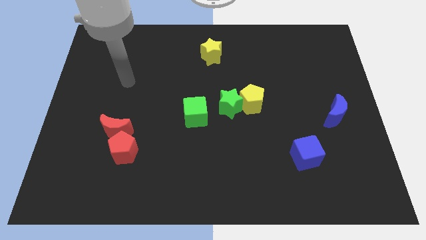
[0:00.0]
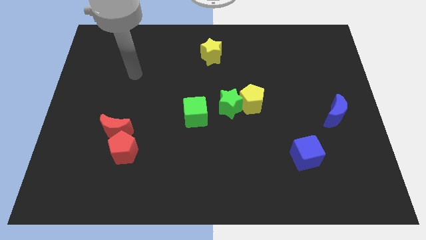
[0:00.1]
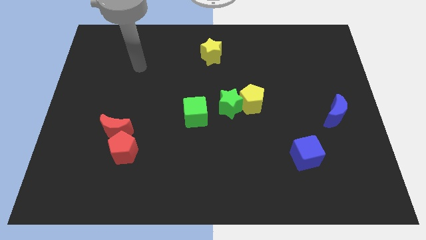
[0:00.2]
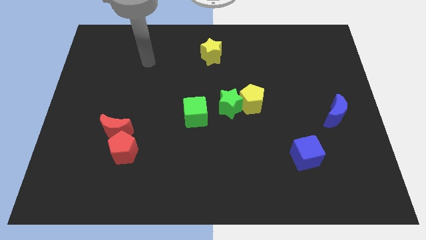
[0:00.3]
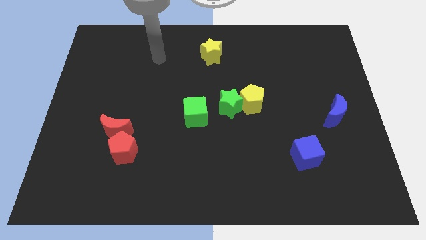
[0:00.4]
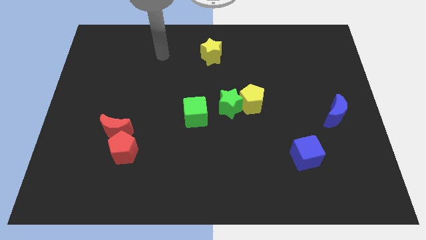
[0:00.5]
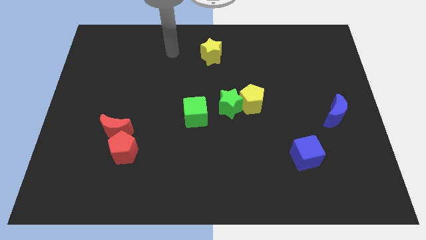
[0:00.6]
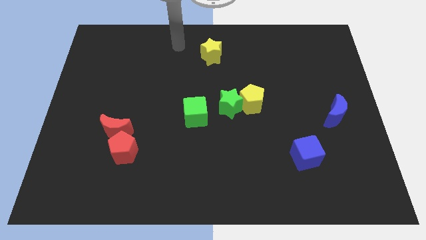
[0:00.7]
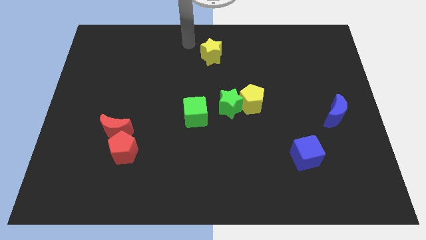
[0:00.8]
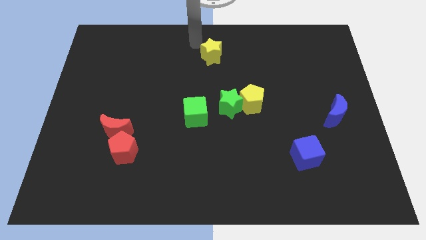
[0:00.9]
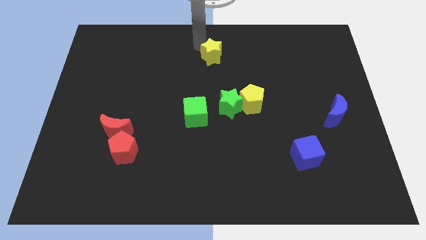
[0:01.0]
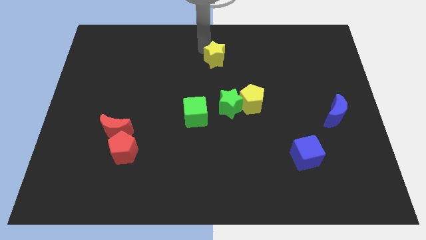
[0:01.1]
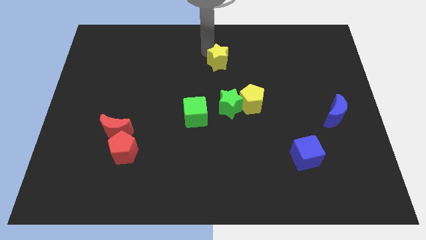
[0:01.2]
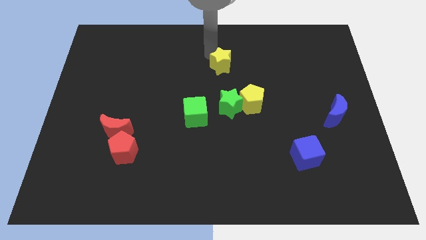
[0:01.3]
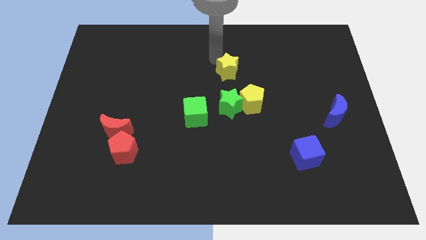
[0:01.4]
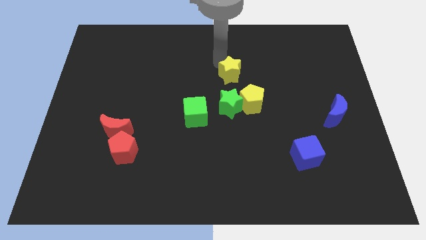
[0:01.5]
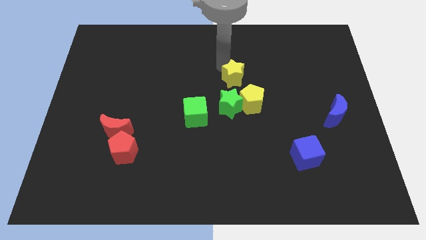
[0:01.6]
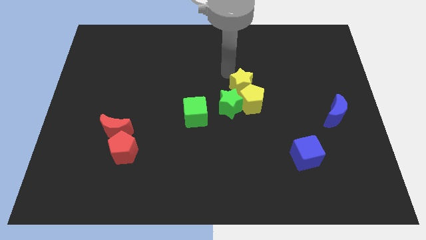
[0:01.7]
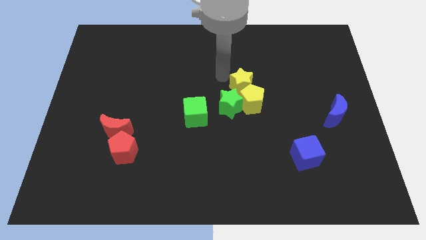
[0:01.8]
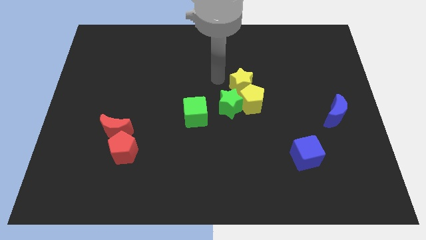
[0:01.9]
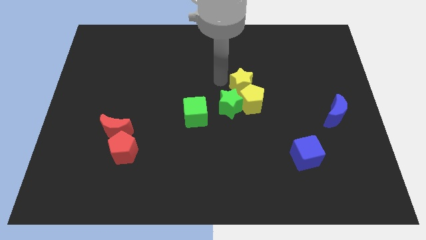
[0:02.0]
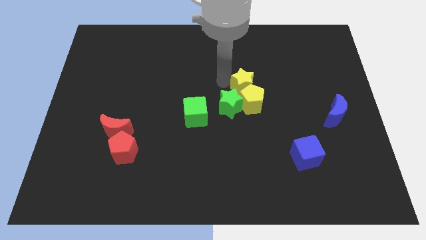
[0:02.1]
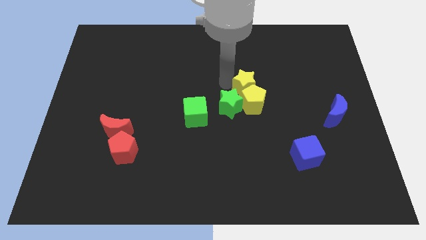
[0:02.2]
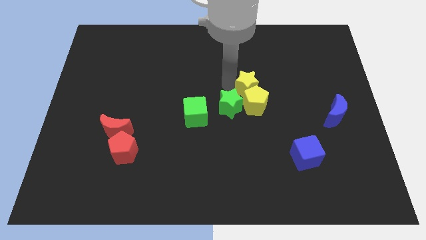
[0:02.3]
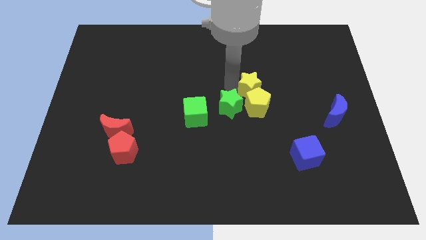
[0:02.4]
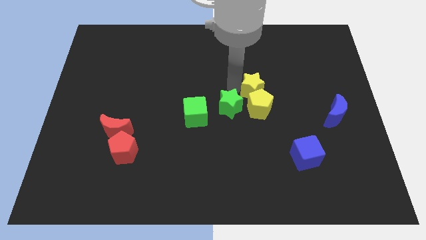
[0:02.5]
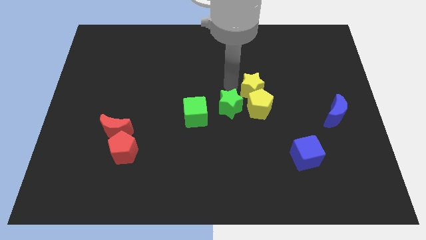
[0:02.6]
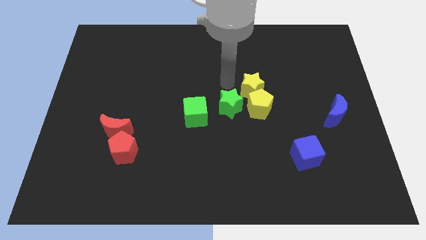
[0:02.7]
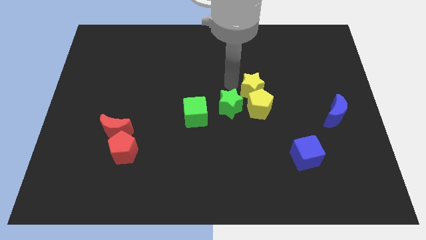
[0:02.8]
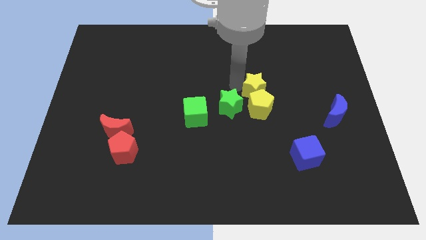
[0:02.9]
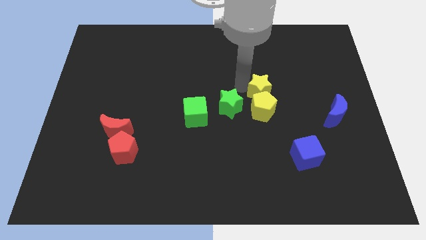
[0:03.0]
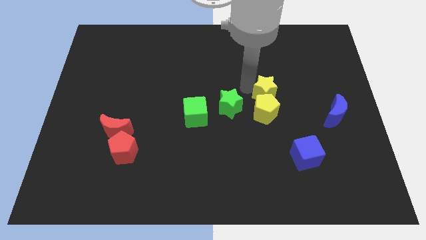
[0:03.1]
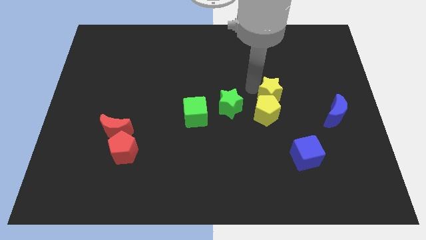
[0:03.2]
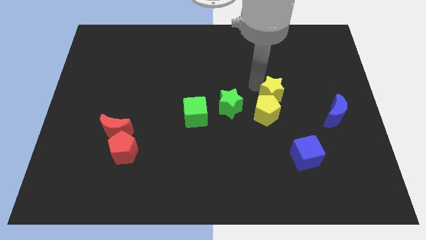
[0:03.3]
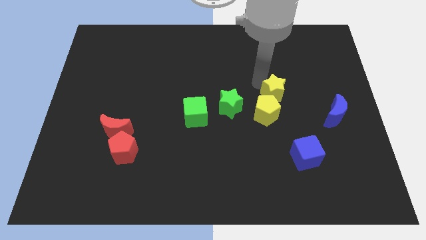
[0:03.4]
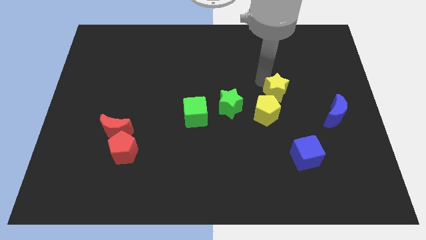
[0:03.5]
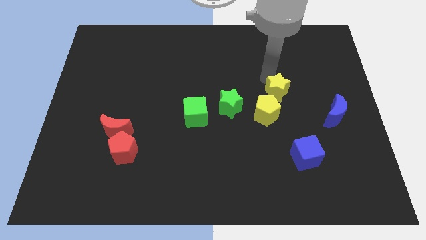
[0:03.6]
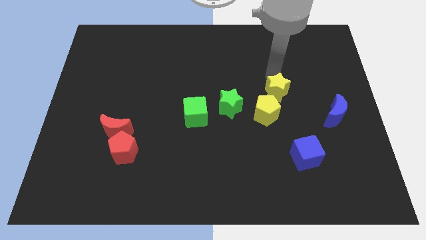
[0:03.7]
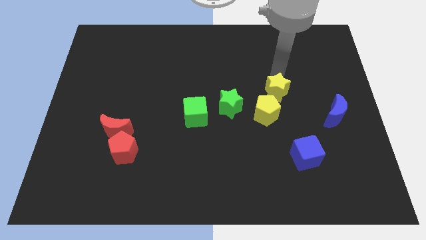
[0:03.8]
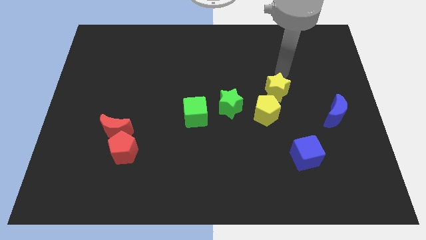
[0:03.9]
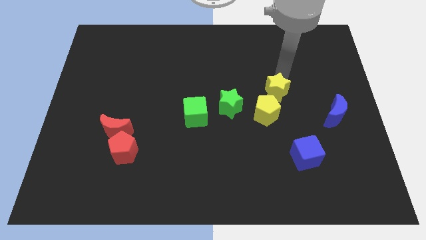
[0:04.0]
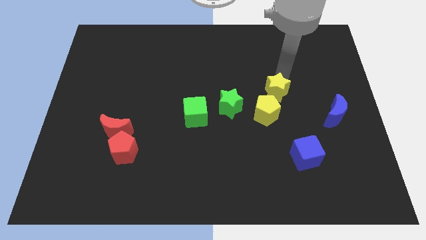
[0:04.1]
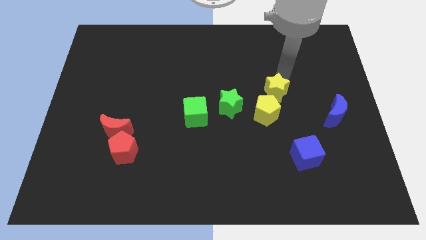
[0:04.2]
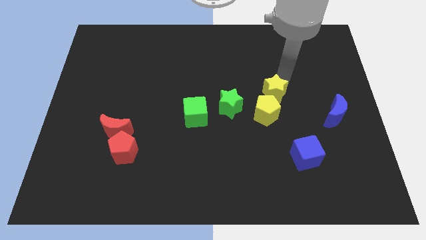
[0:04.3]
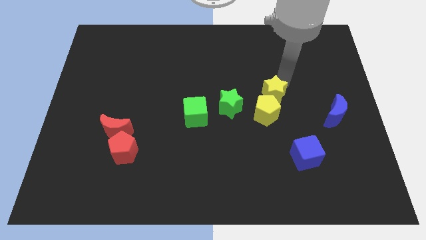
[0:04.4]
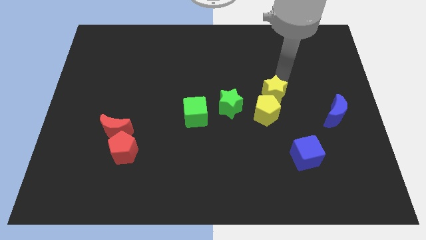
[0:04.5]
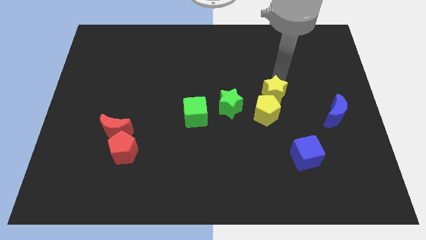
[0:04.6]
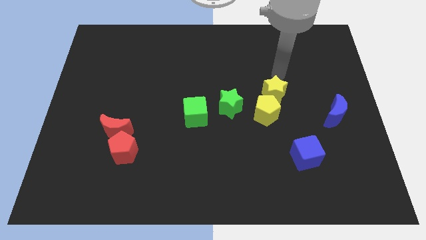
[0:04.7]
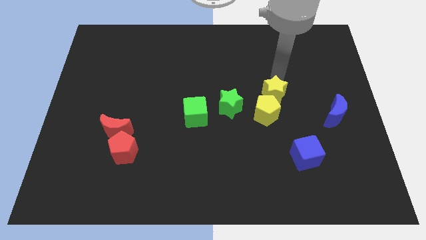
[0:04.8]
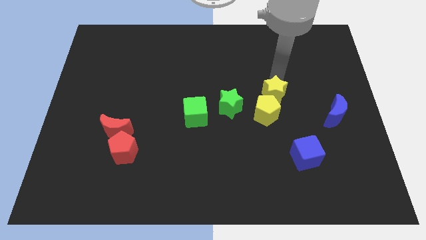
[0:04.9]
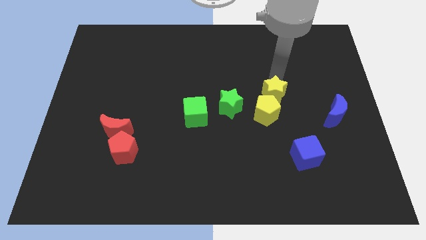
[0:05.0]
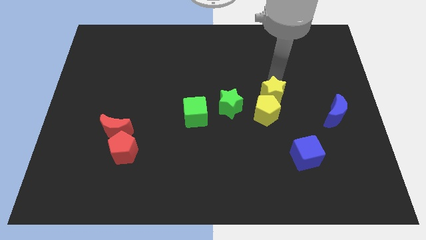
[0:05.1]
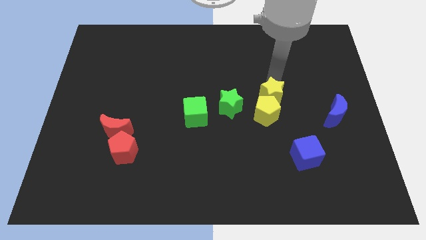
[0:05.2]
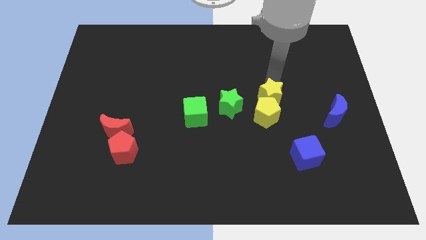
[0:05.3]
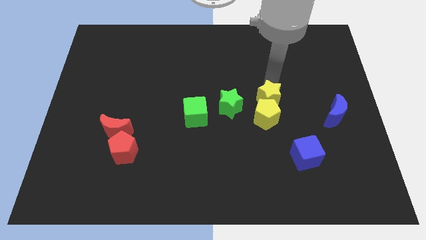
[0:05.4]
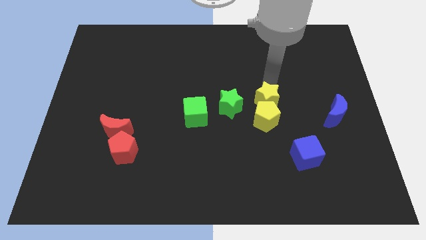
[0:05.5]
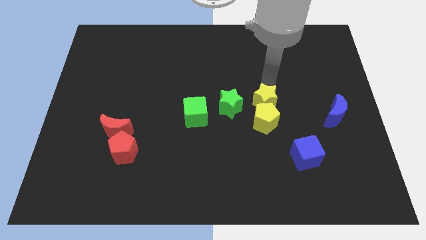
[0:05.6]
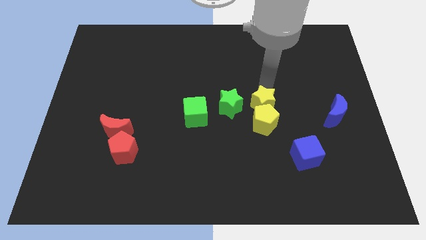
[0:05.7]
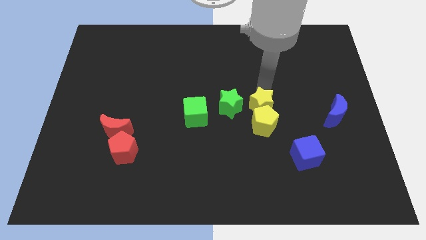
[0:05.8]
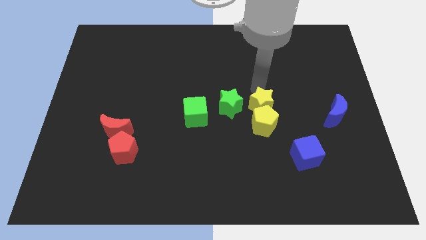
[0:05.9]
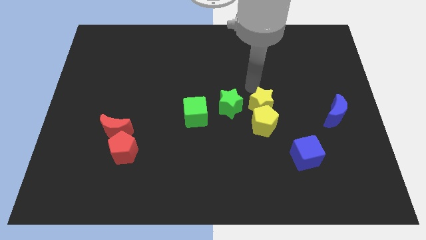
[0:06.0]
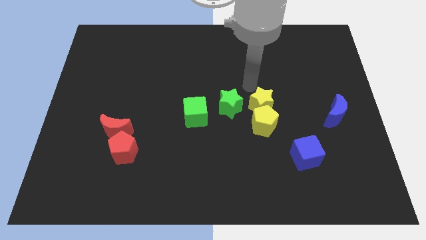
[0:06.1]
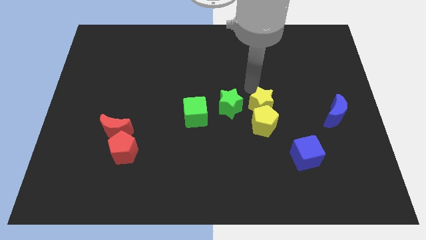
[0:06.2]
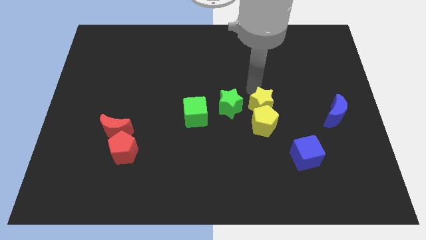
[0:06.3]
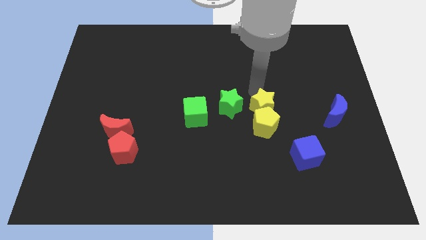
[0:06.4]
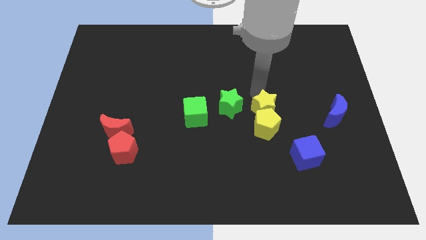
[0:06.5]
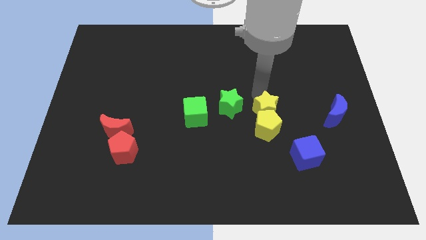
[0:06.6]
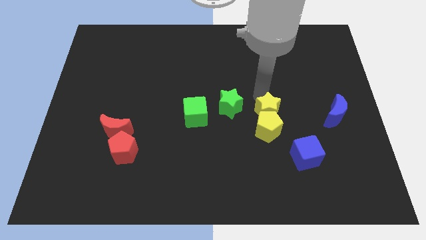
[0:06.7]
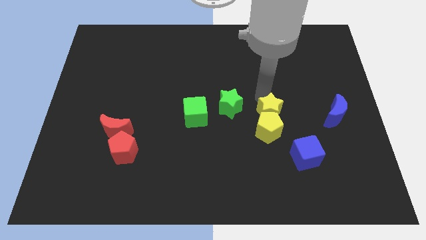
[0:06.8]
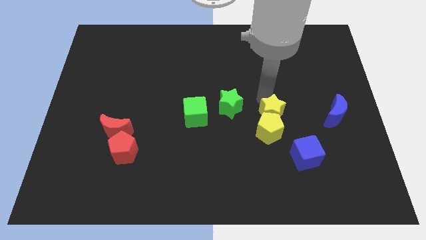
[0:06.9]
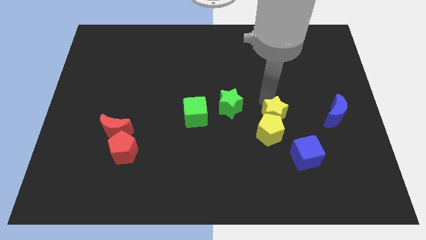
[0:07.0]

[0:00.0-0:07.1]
push the yellow star diagonally up and to the left of the blue cube

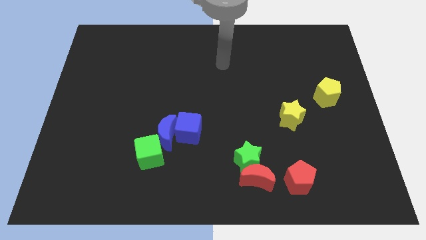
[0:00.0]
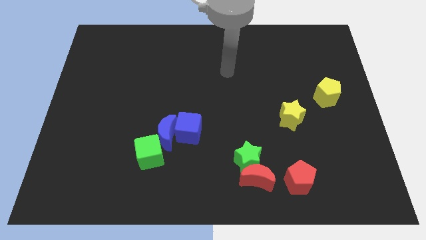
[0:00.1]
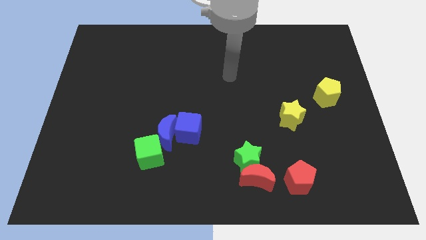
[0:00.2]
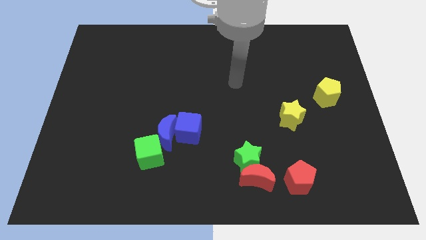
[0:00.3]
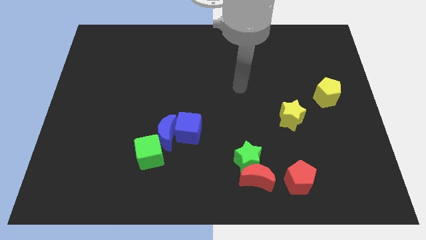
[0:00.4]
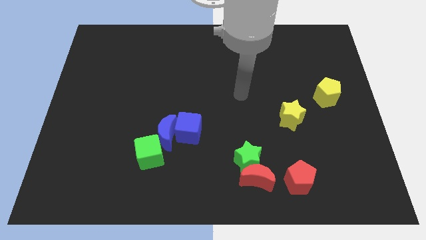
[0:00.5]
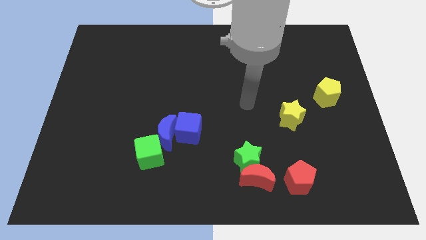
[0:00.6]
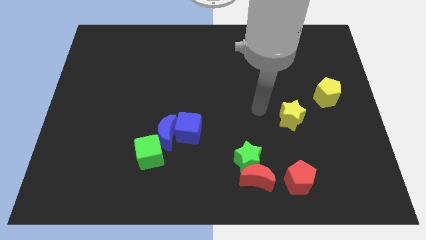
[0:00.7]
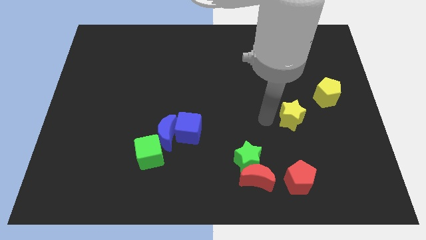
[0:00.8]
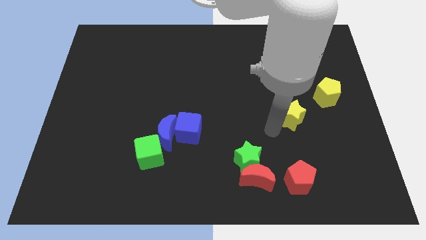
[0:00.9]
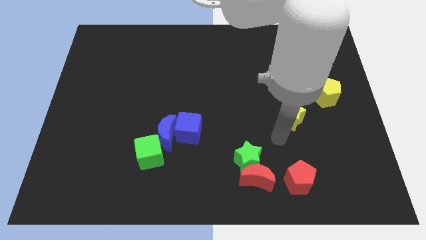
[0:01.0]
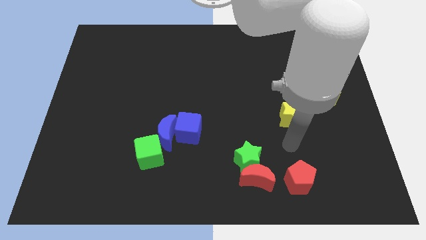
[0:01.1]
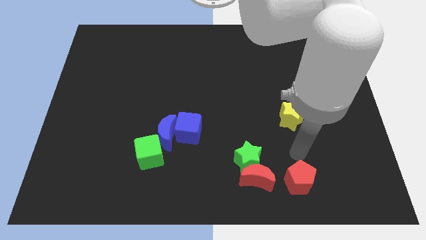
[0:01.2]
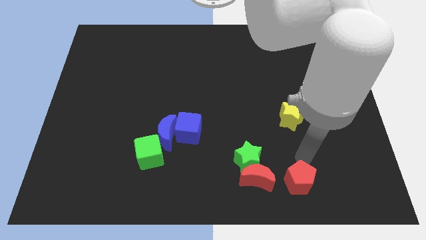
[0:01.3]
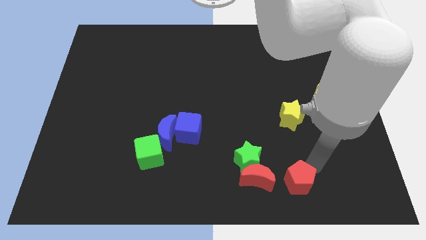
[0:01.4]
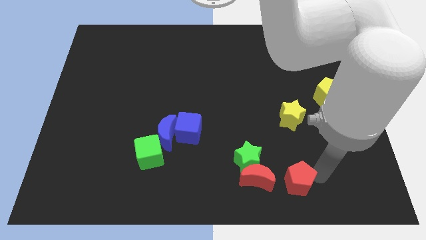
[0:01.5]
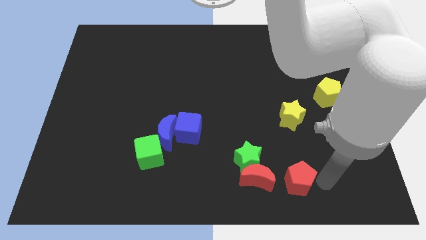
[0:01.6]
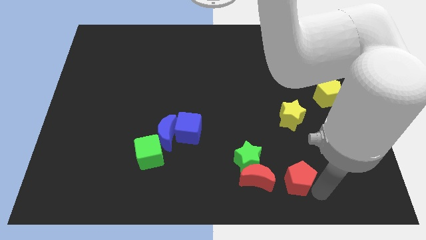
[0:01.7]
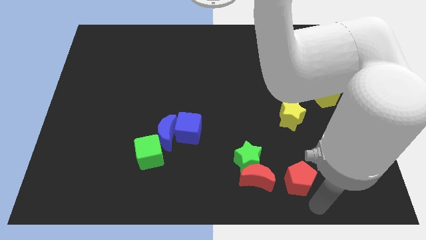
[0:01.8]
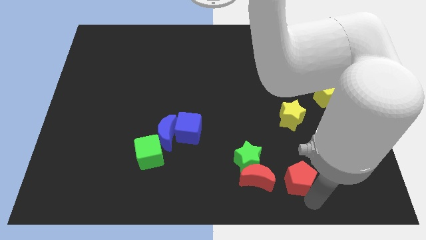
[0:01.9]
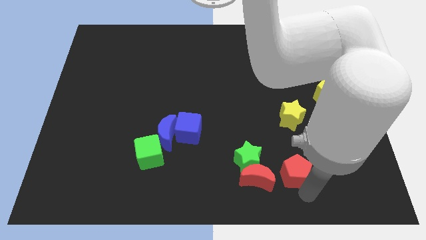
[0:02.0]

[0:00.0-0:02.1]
slide the red pentagon to the top right side of the red moon
